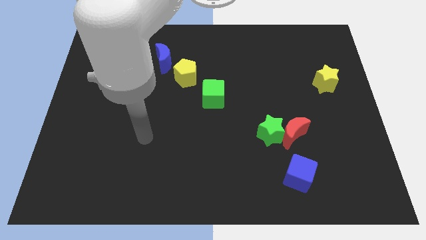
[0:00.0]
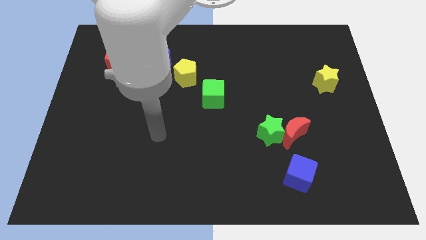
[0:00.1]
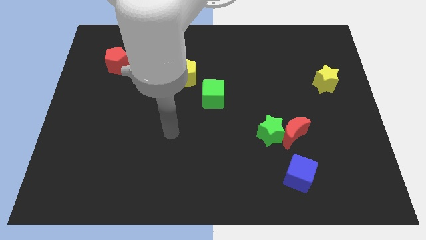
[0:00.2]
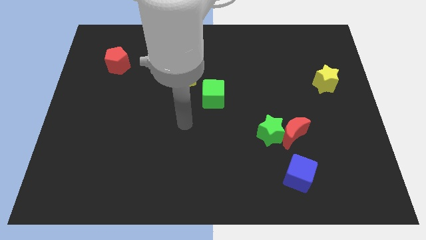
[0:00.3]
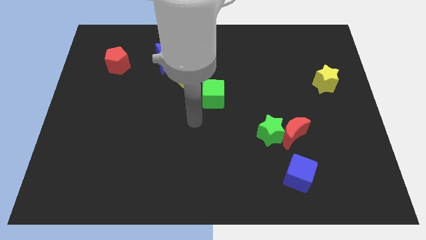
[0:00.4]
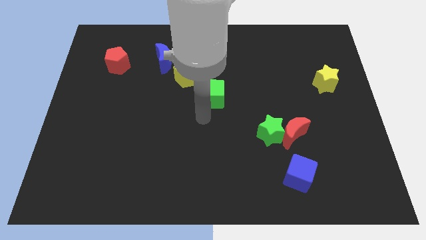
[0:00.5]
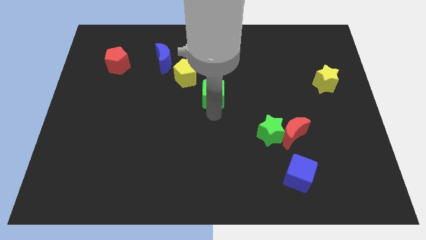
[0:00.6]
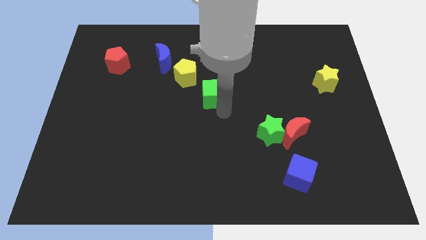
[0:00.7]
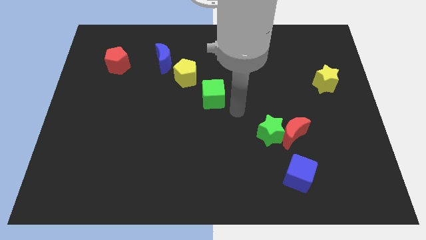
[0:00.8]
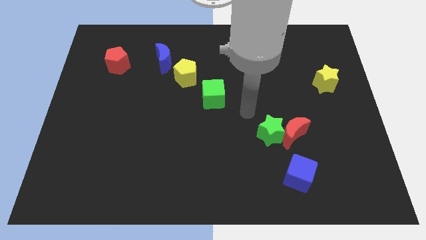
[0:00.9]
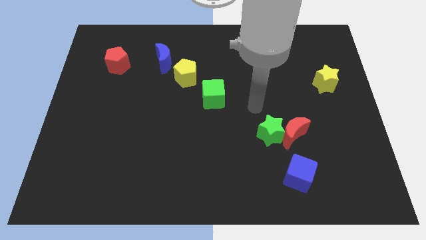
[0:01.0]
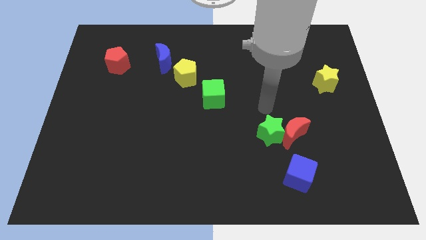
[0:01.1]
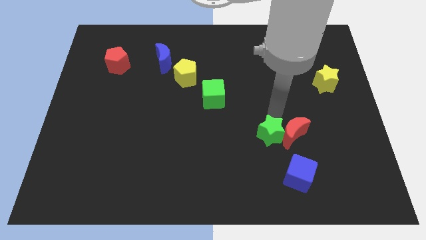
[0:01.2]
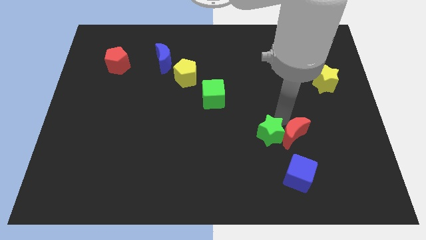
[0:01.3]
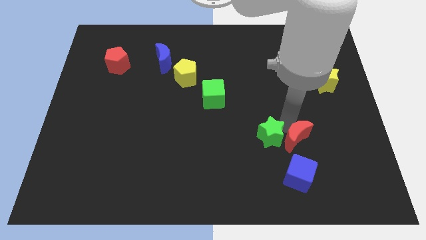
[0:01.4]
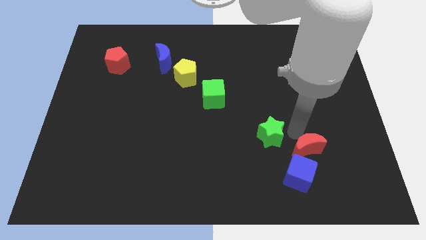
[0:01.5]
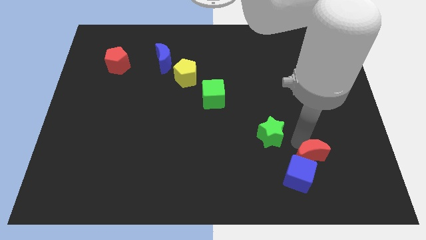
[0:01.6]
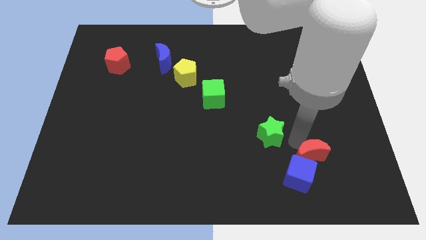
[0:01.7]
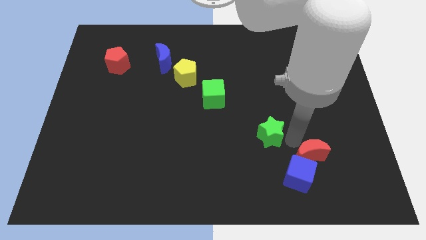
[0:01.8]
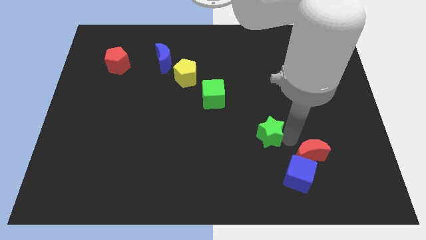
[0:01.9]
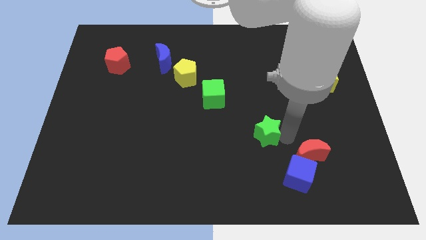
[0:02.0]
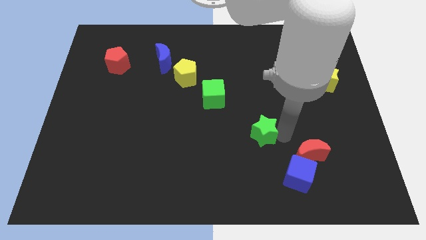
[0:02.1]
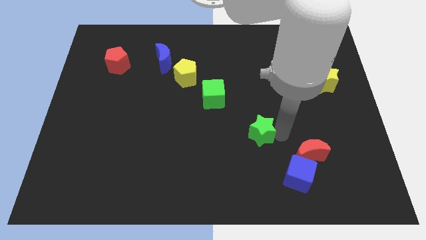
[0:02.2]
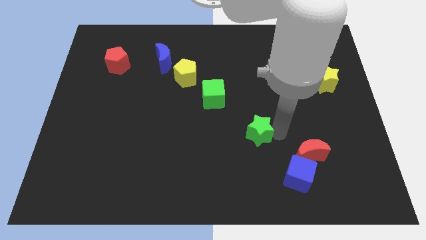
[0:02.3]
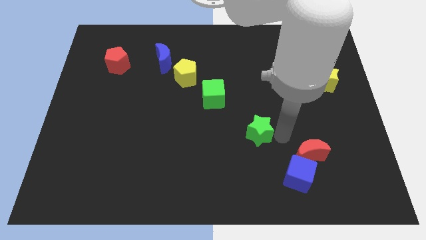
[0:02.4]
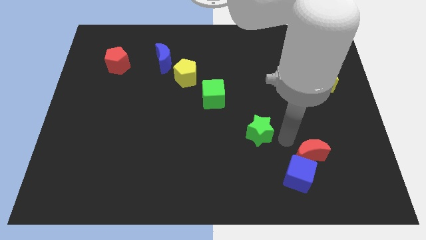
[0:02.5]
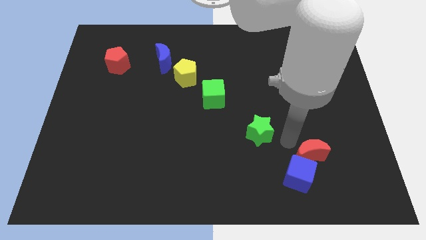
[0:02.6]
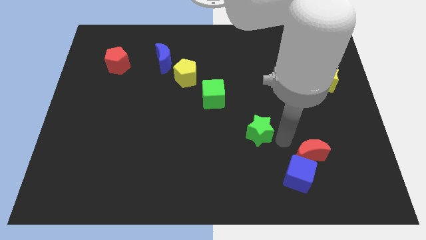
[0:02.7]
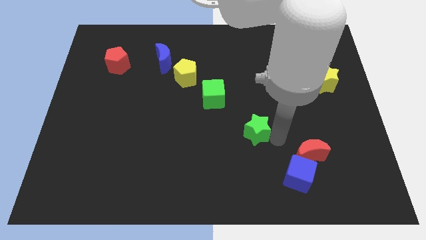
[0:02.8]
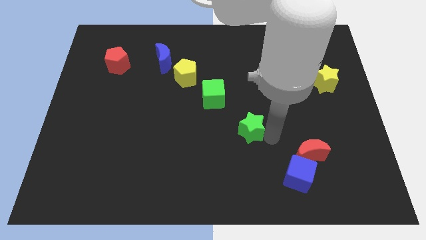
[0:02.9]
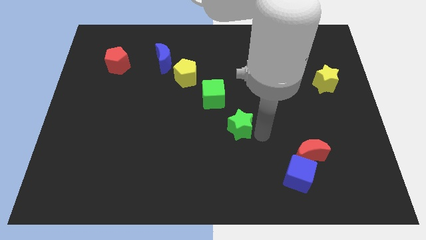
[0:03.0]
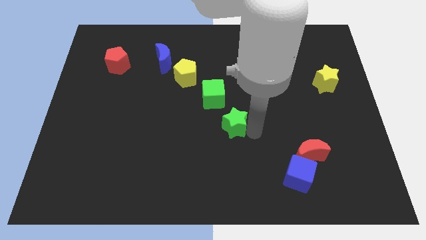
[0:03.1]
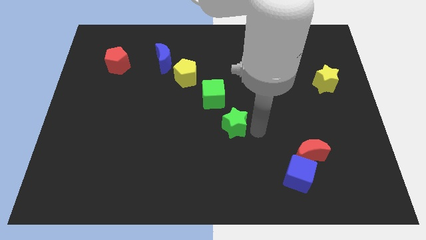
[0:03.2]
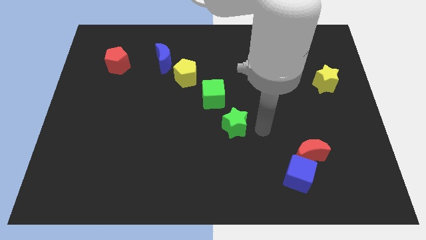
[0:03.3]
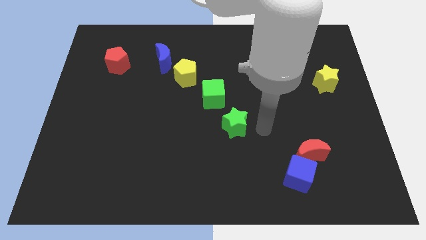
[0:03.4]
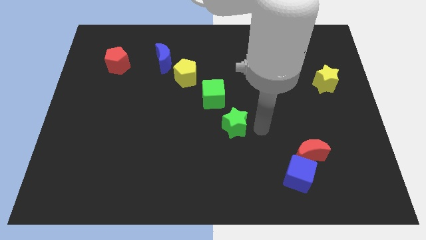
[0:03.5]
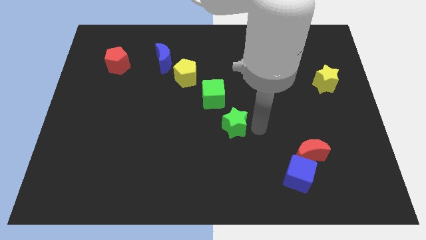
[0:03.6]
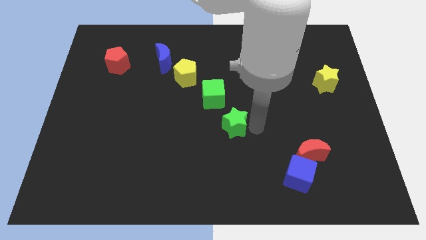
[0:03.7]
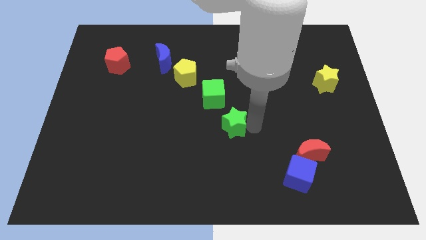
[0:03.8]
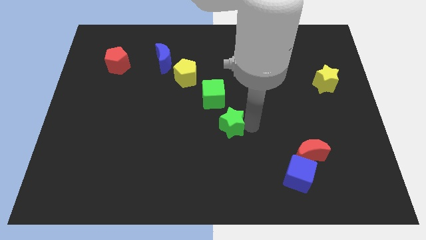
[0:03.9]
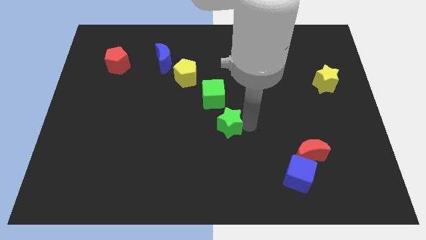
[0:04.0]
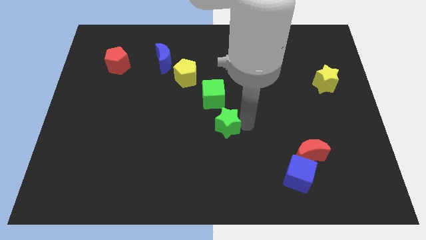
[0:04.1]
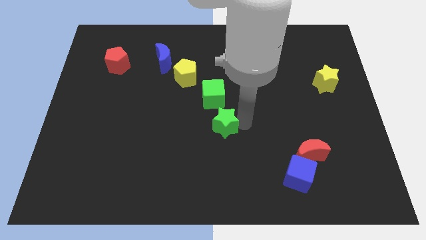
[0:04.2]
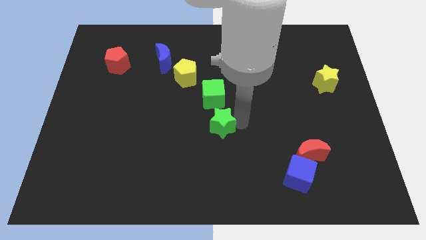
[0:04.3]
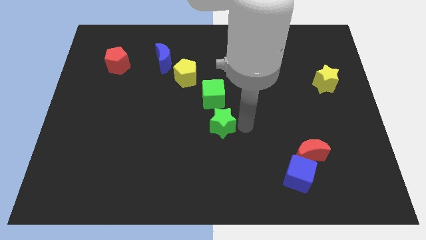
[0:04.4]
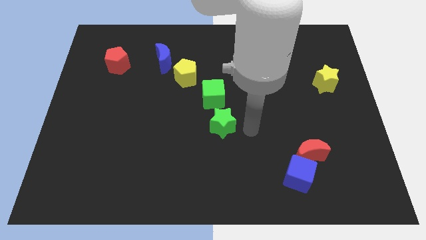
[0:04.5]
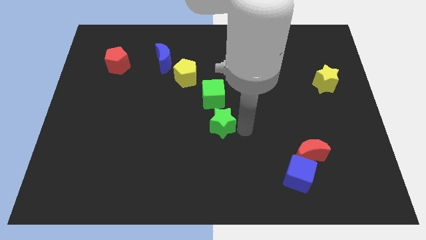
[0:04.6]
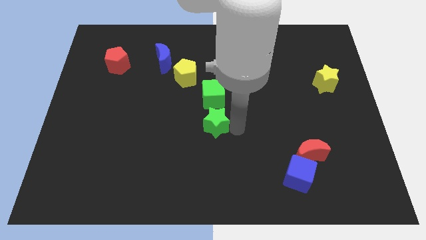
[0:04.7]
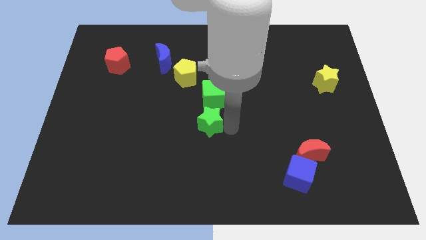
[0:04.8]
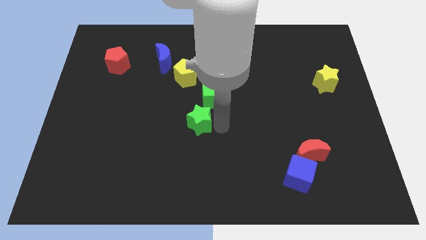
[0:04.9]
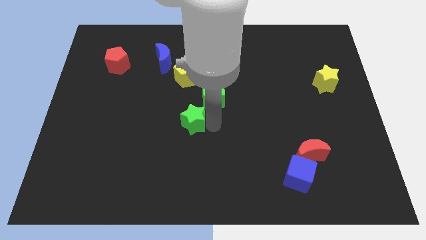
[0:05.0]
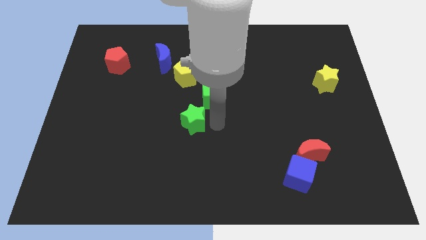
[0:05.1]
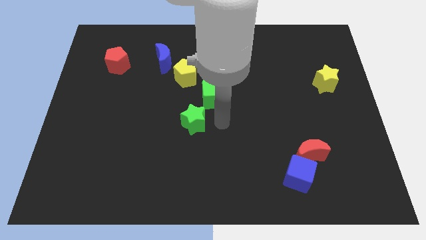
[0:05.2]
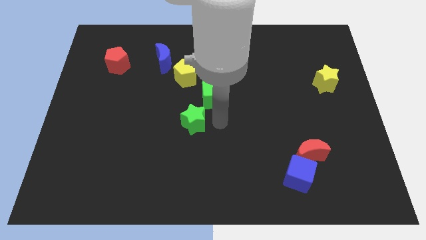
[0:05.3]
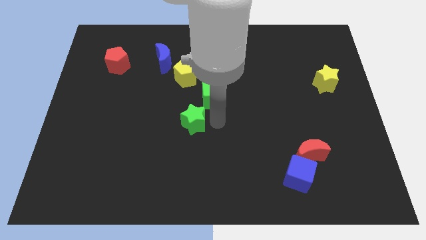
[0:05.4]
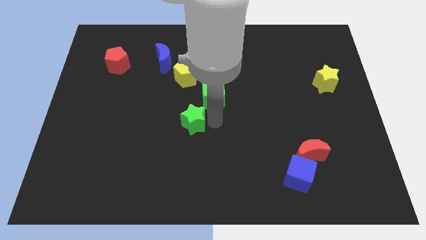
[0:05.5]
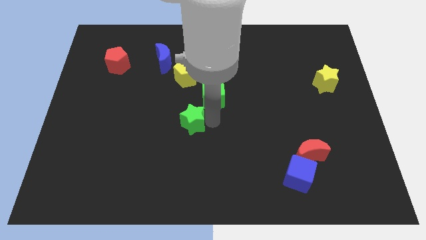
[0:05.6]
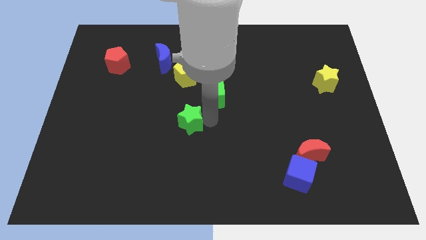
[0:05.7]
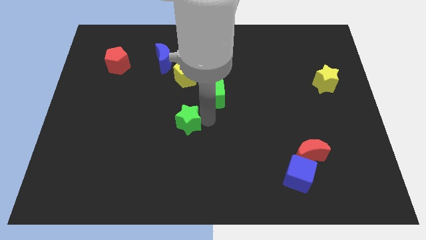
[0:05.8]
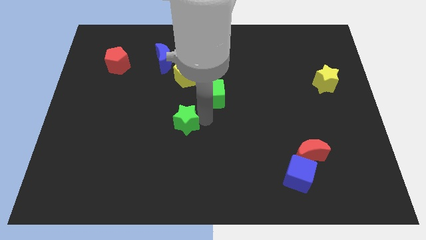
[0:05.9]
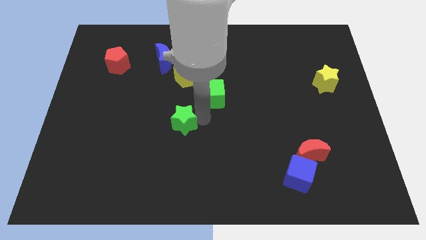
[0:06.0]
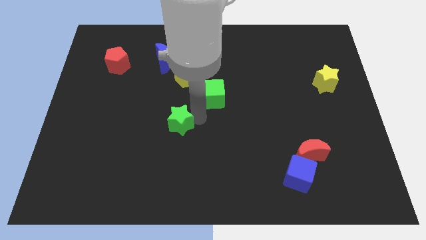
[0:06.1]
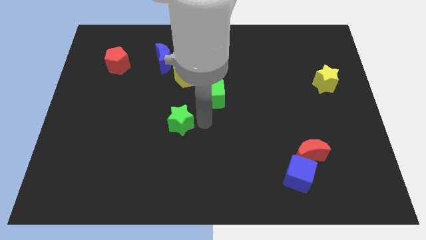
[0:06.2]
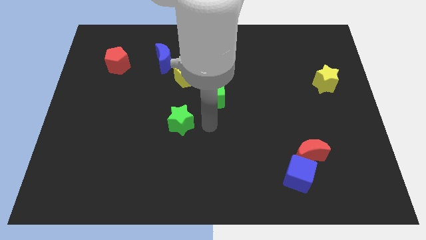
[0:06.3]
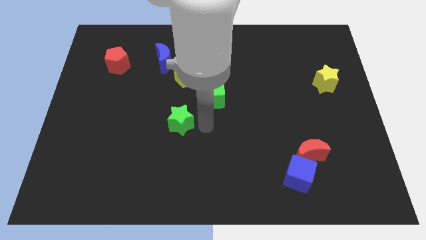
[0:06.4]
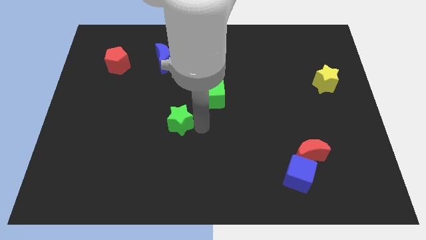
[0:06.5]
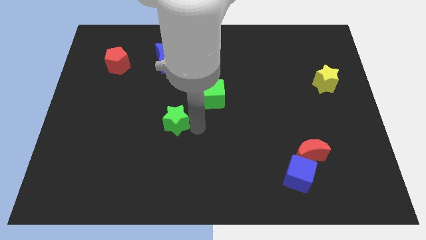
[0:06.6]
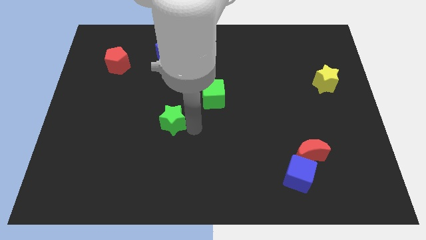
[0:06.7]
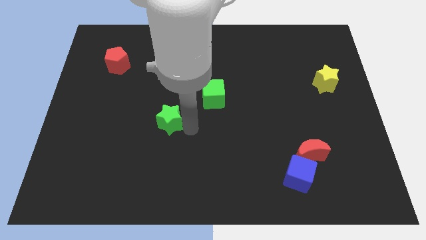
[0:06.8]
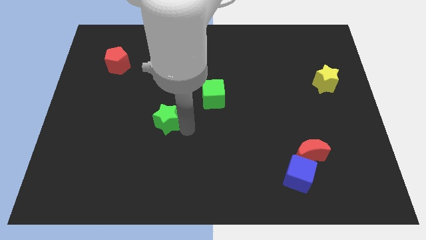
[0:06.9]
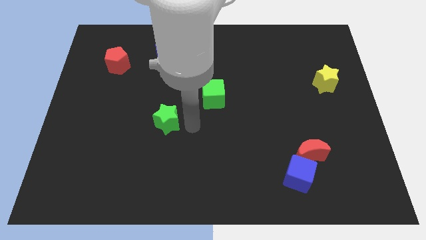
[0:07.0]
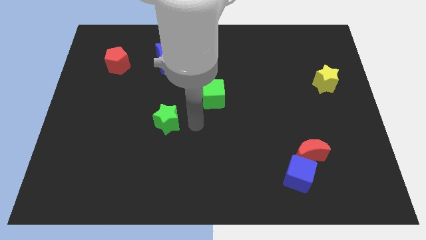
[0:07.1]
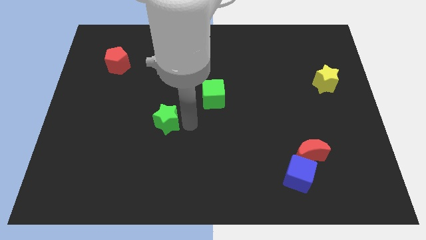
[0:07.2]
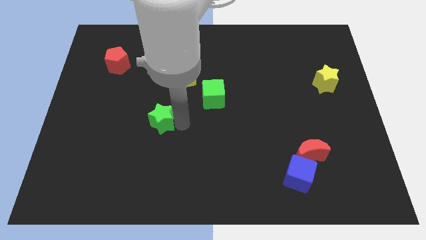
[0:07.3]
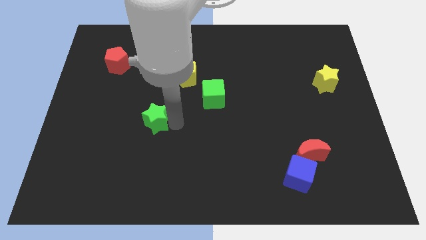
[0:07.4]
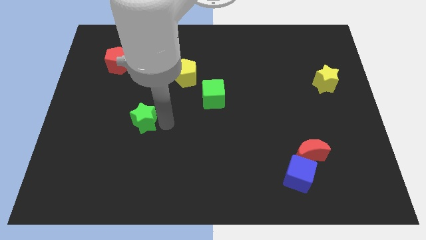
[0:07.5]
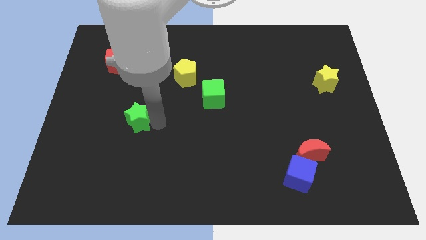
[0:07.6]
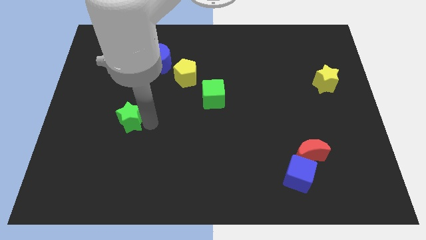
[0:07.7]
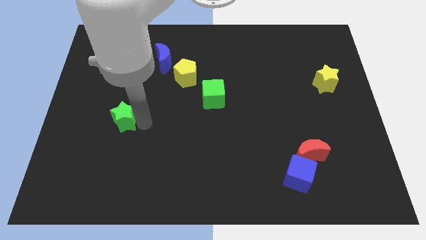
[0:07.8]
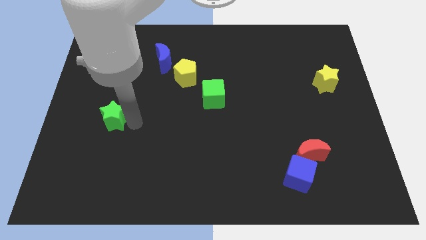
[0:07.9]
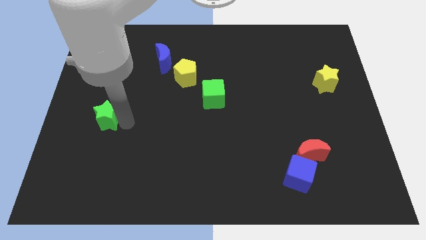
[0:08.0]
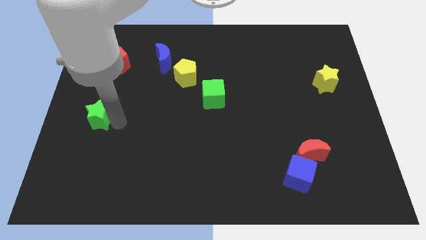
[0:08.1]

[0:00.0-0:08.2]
put the green star to the left side
